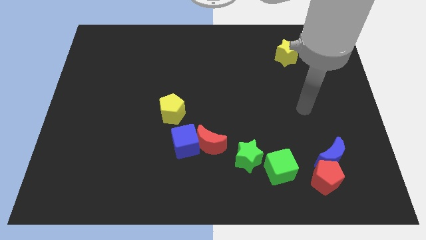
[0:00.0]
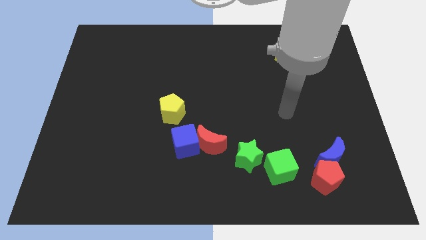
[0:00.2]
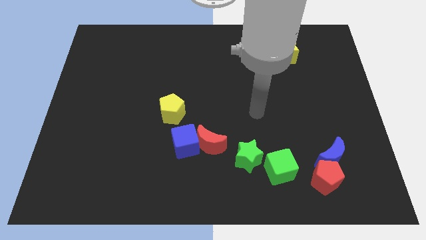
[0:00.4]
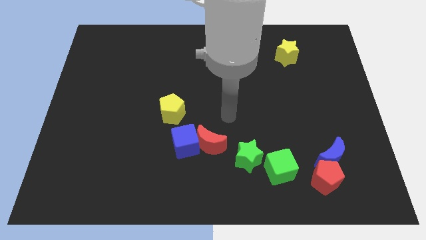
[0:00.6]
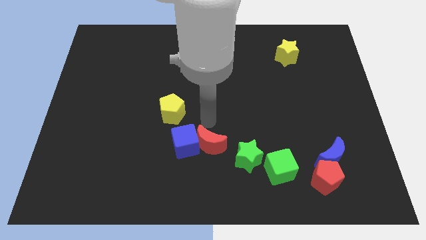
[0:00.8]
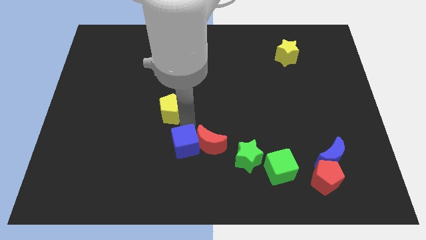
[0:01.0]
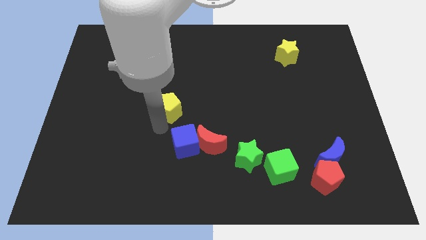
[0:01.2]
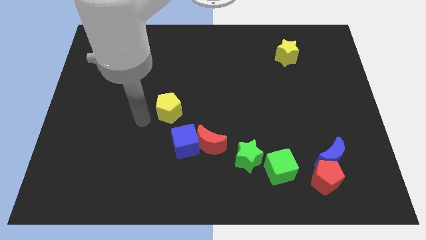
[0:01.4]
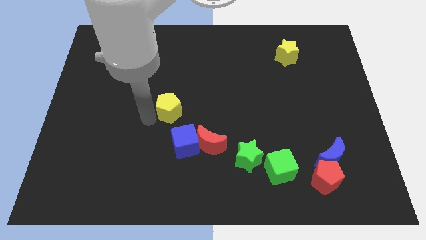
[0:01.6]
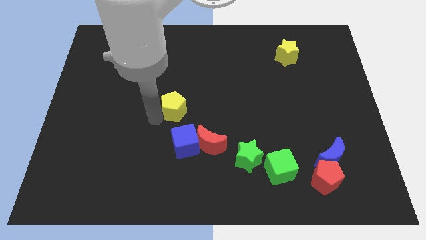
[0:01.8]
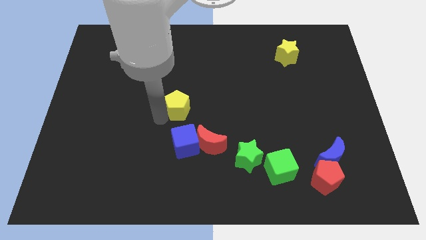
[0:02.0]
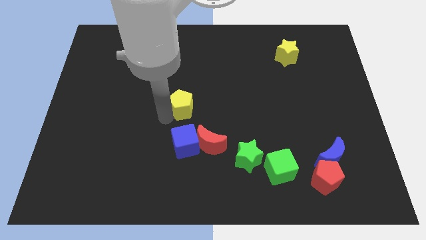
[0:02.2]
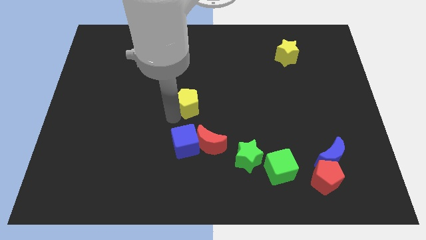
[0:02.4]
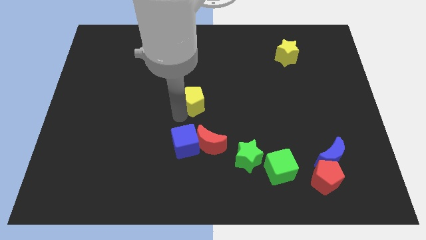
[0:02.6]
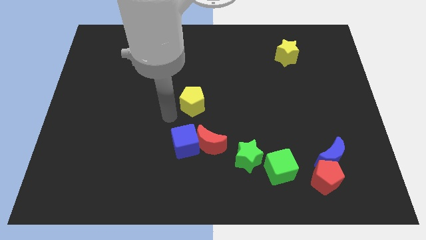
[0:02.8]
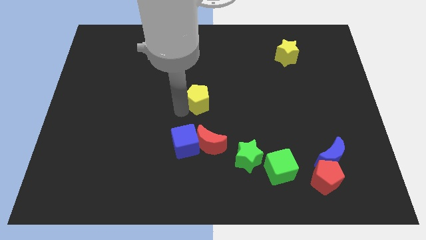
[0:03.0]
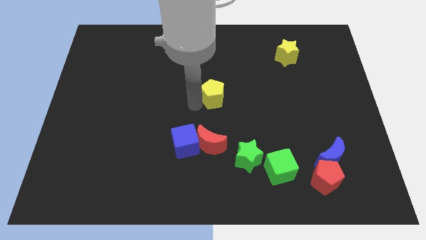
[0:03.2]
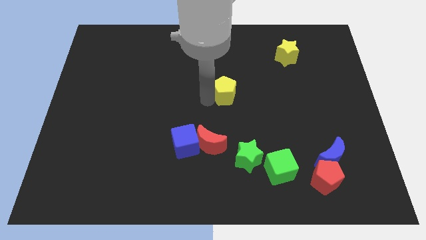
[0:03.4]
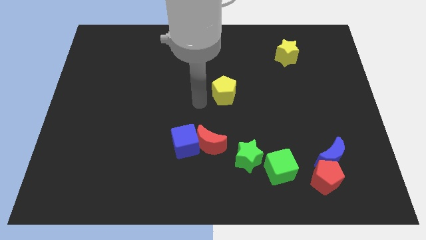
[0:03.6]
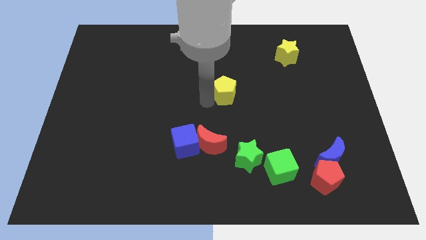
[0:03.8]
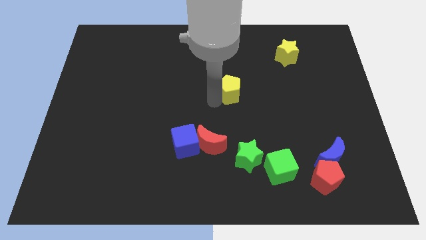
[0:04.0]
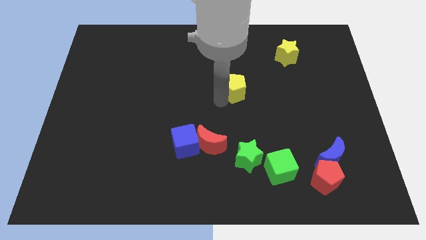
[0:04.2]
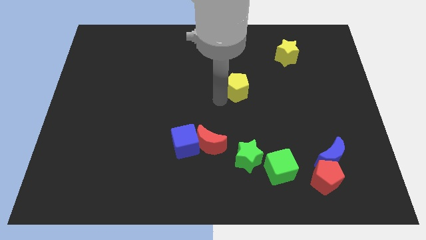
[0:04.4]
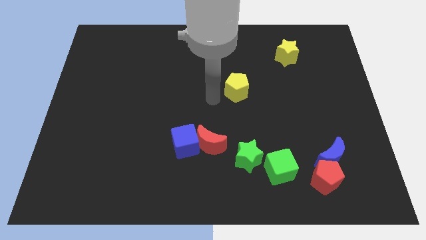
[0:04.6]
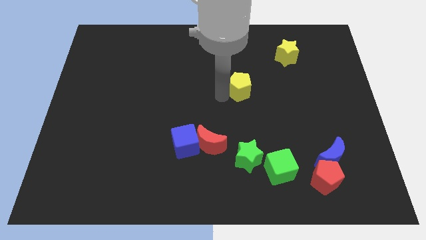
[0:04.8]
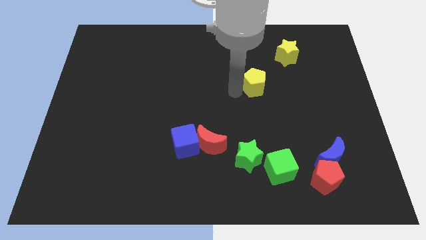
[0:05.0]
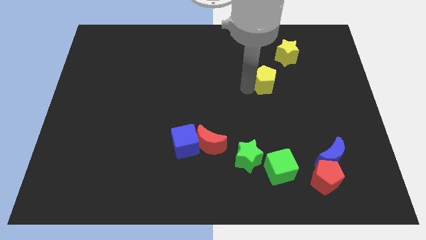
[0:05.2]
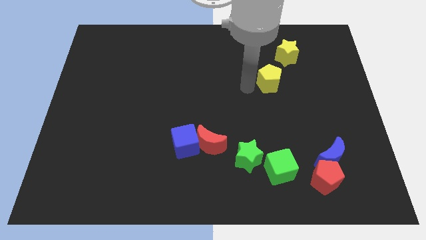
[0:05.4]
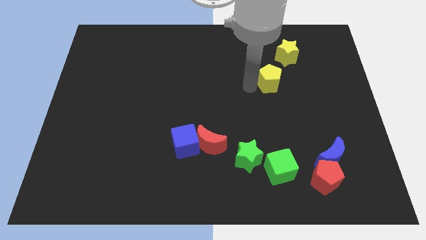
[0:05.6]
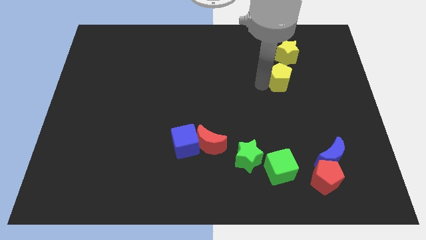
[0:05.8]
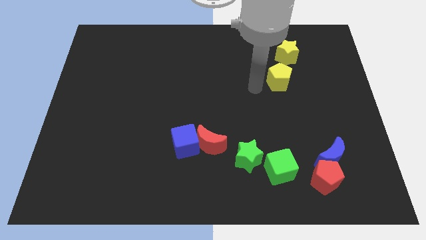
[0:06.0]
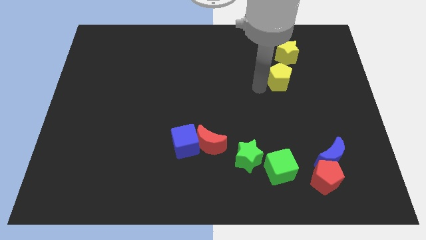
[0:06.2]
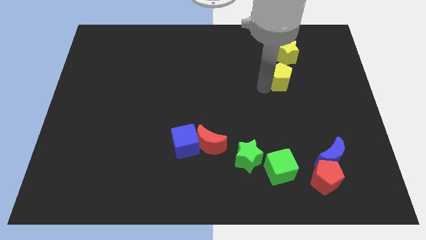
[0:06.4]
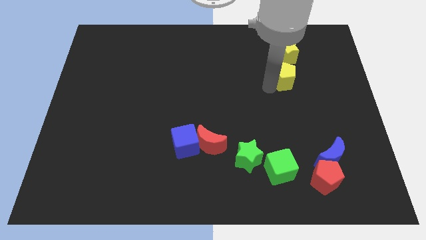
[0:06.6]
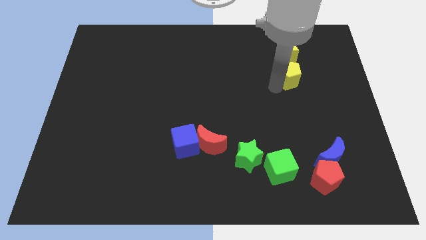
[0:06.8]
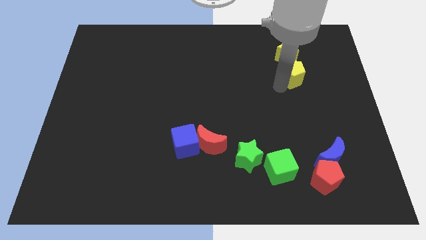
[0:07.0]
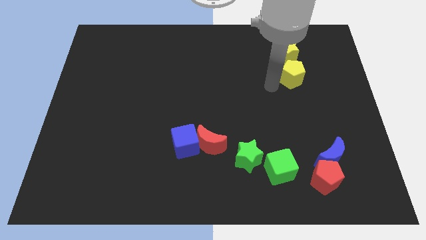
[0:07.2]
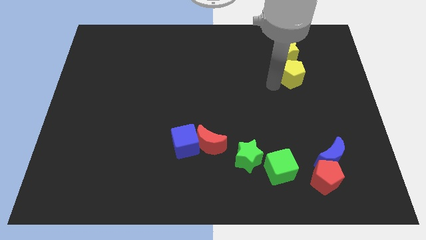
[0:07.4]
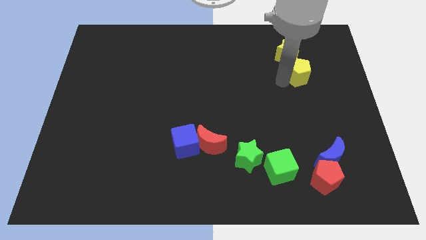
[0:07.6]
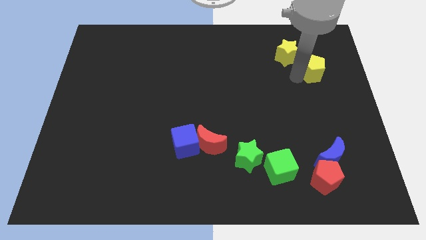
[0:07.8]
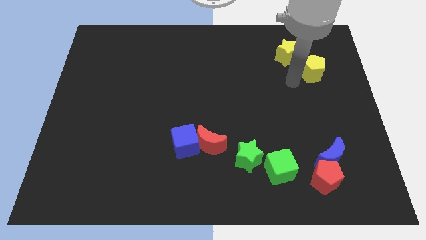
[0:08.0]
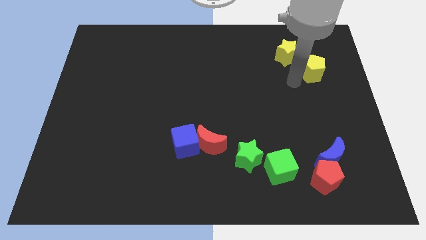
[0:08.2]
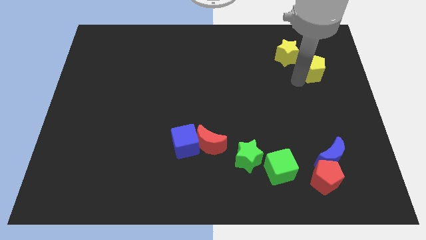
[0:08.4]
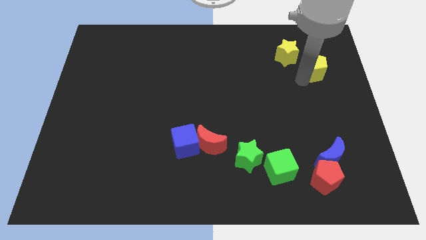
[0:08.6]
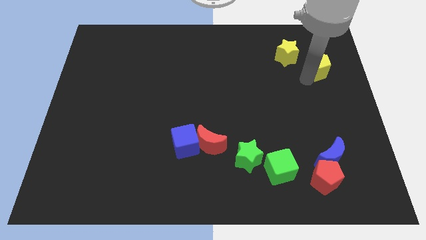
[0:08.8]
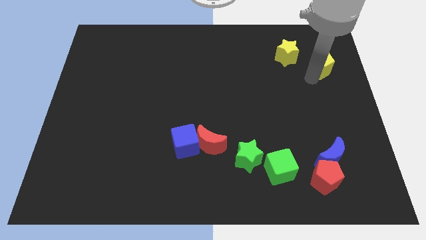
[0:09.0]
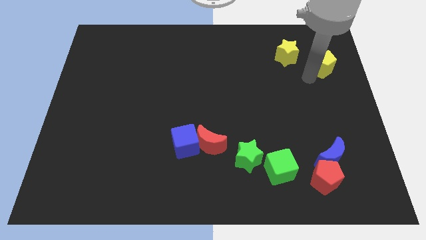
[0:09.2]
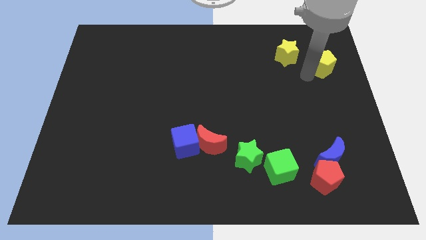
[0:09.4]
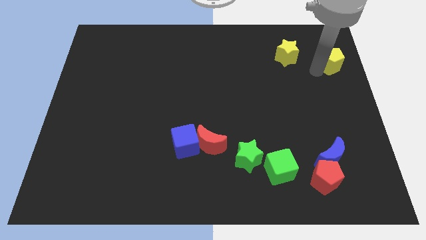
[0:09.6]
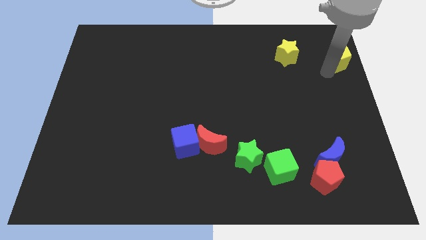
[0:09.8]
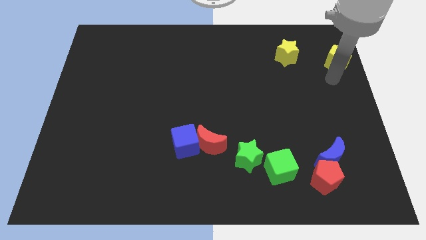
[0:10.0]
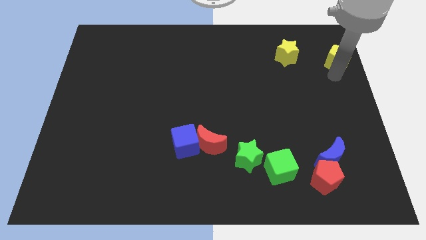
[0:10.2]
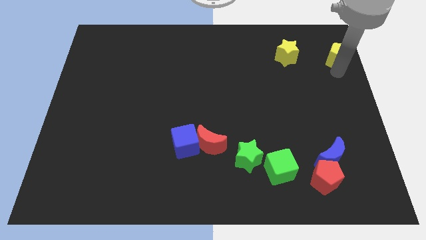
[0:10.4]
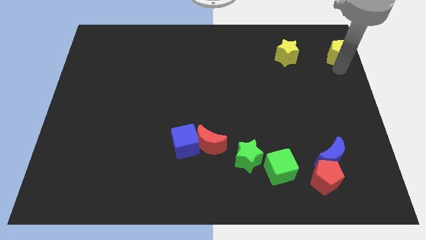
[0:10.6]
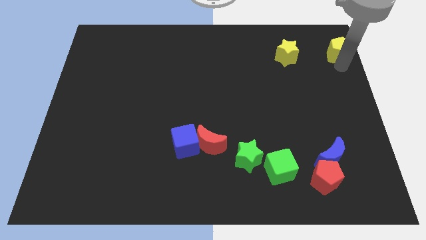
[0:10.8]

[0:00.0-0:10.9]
slide the yellow pentagon to the top right

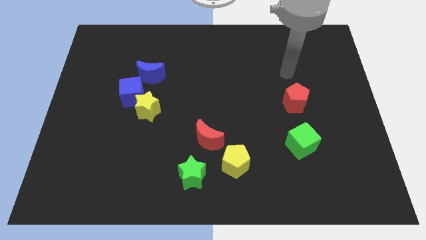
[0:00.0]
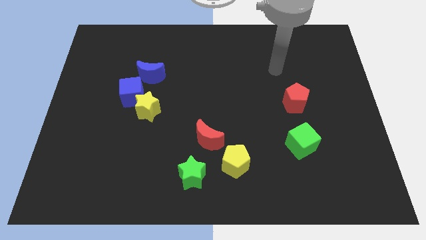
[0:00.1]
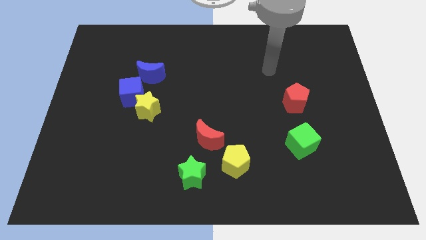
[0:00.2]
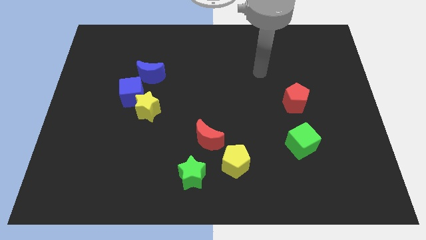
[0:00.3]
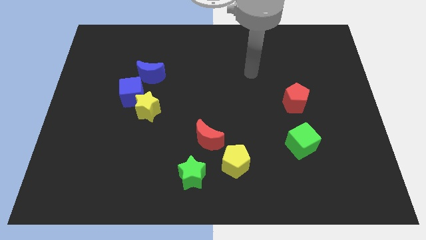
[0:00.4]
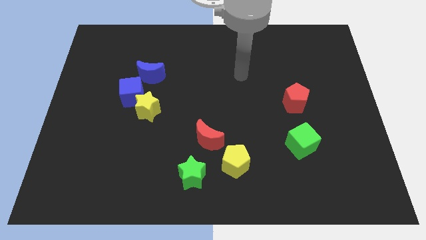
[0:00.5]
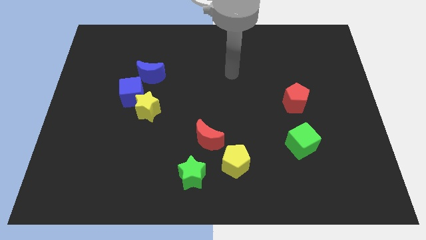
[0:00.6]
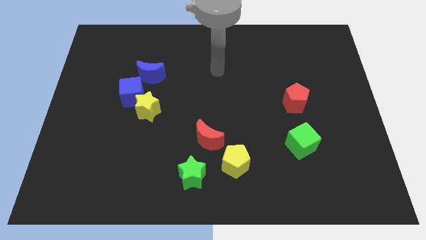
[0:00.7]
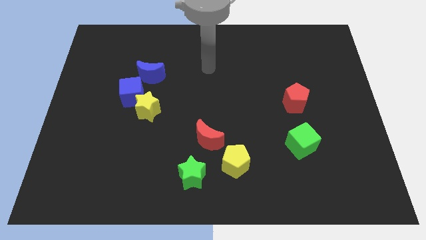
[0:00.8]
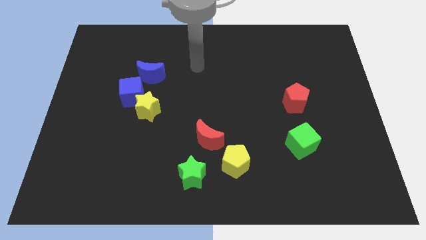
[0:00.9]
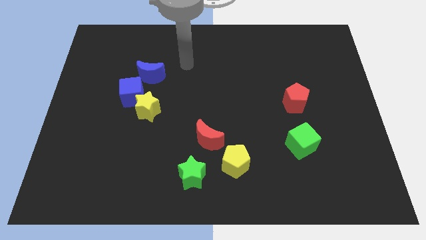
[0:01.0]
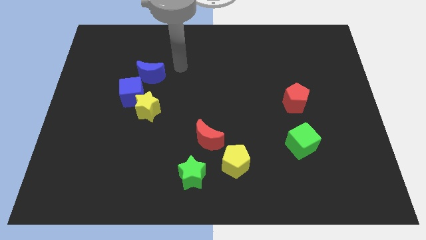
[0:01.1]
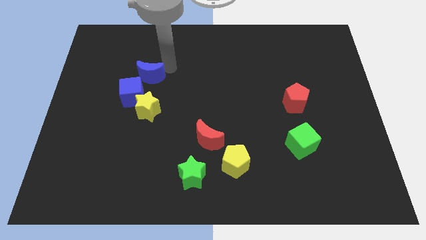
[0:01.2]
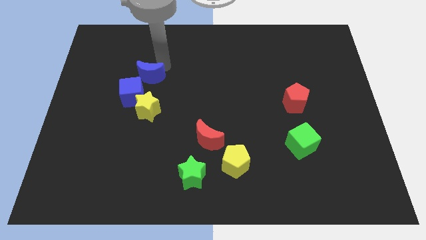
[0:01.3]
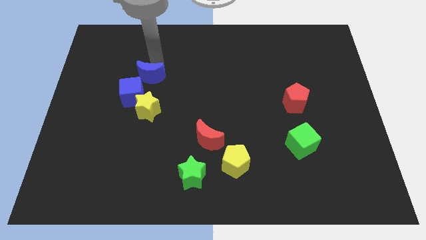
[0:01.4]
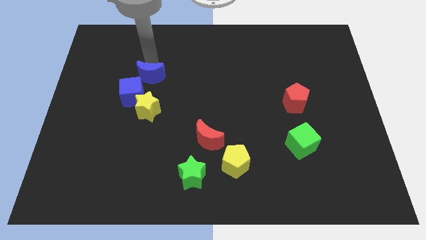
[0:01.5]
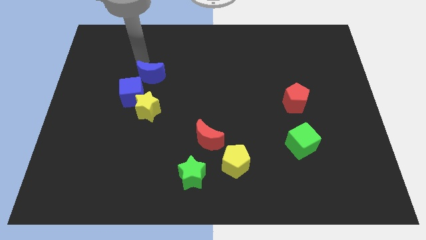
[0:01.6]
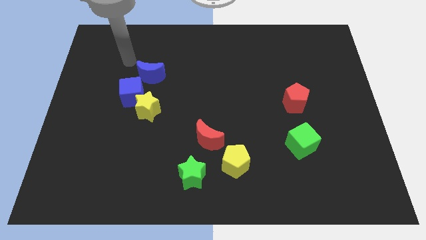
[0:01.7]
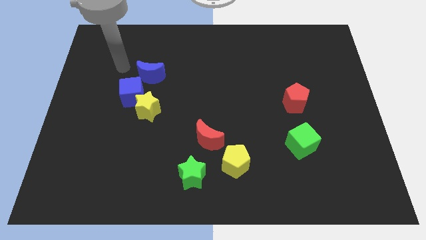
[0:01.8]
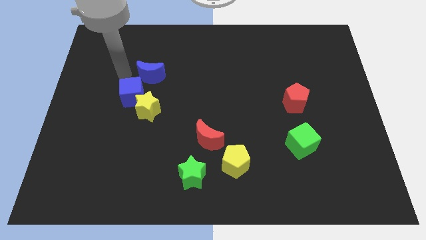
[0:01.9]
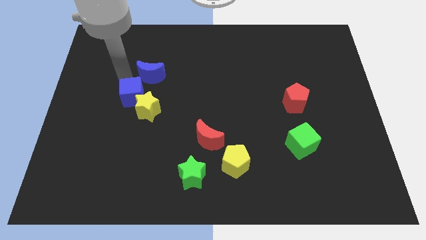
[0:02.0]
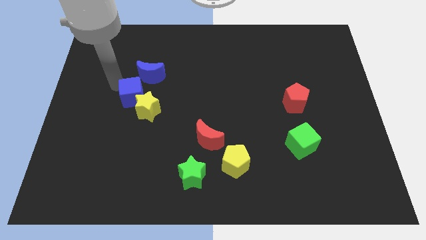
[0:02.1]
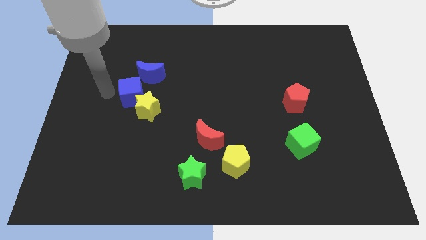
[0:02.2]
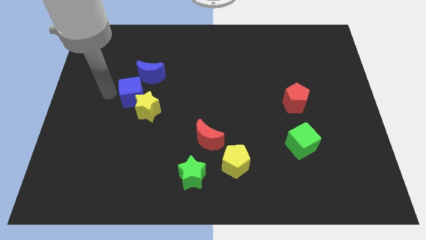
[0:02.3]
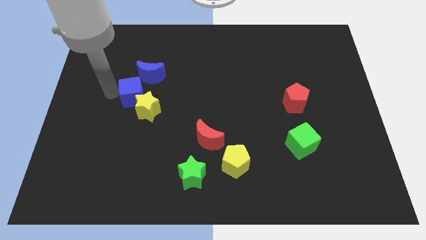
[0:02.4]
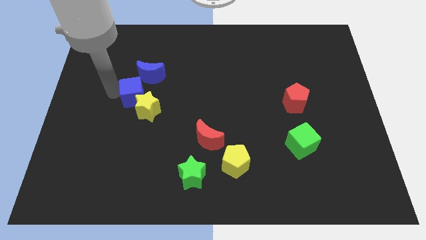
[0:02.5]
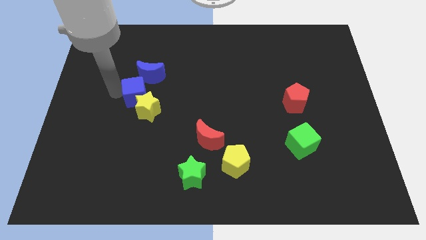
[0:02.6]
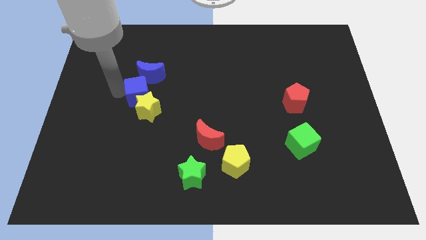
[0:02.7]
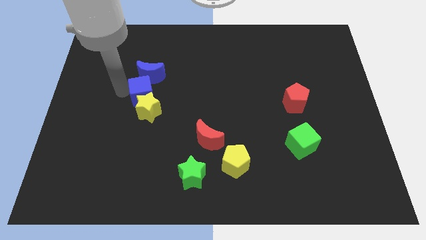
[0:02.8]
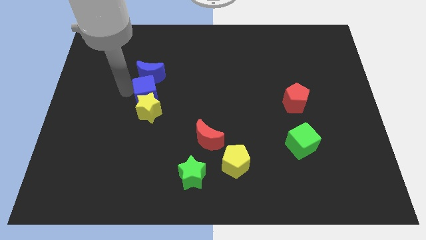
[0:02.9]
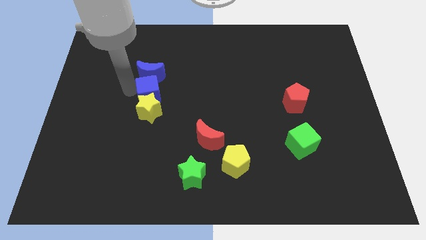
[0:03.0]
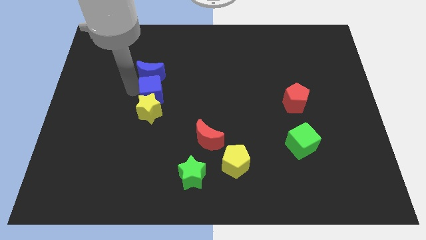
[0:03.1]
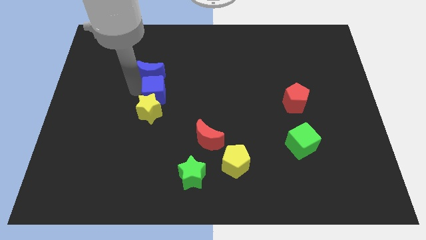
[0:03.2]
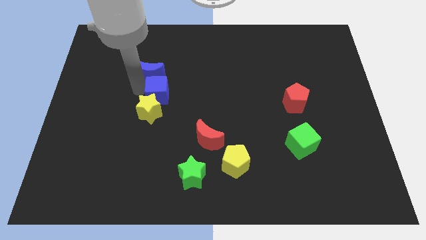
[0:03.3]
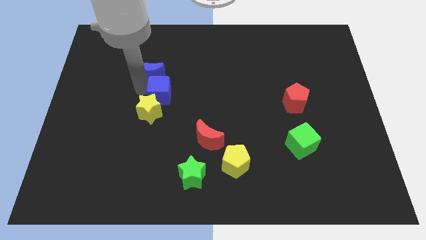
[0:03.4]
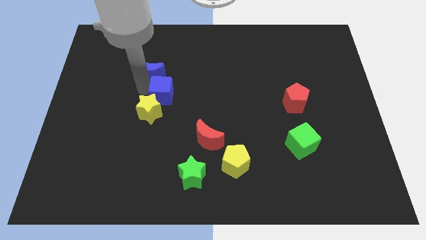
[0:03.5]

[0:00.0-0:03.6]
slide the blue cube to the middle of the board
